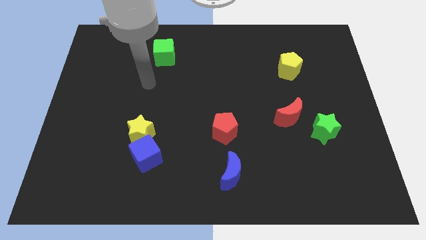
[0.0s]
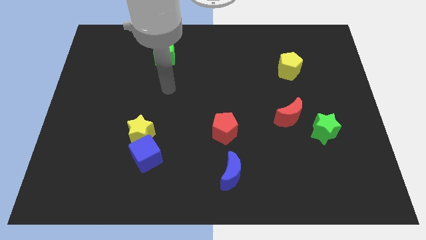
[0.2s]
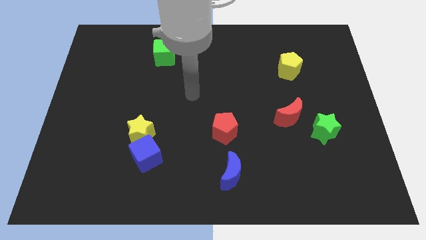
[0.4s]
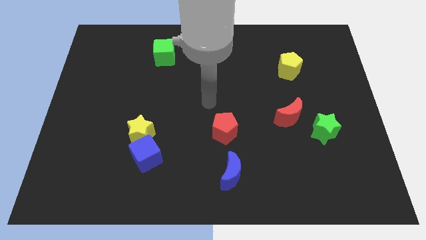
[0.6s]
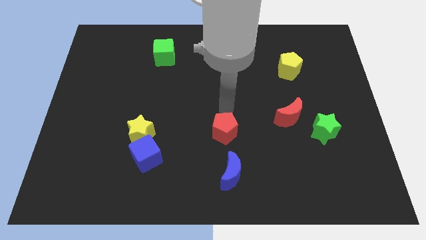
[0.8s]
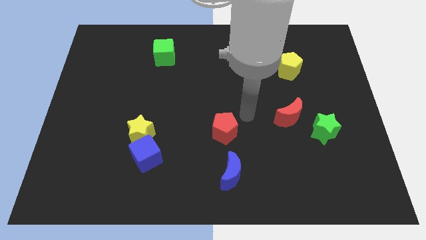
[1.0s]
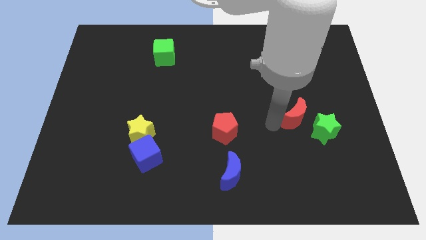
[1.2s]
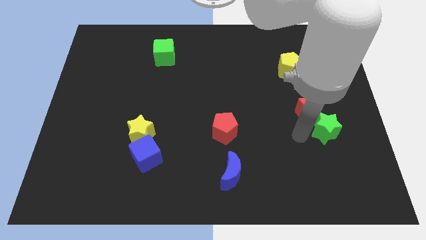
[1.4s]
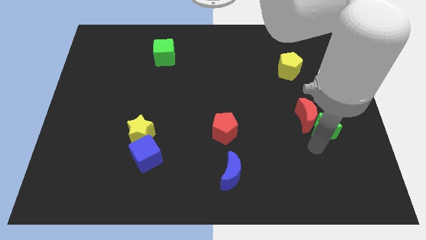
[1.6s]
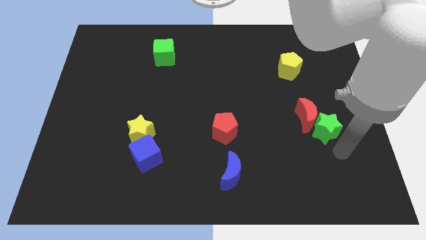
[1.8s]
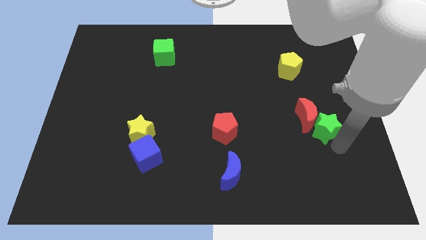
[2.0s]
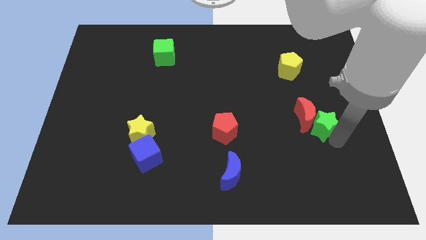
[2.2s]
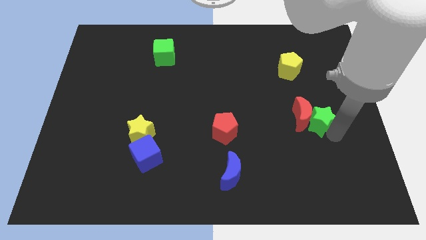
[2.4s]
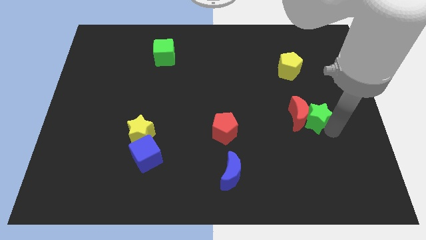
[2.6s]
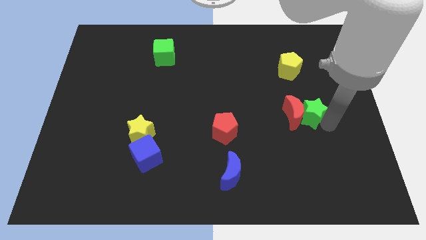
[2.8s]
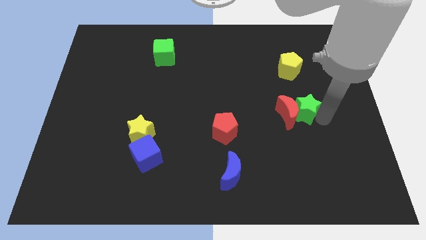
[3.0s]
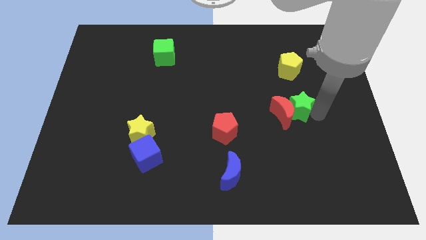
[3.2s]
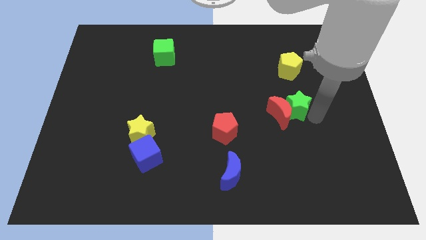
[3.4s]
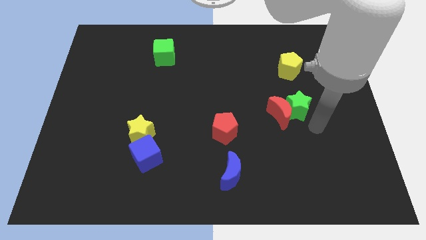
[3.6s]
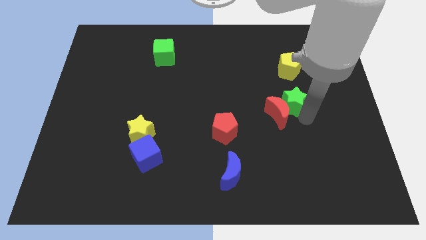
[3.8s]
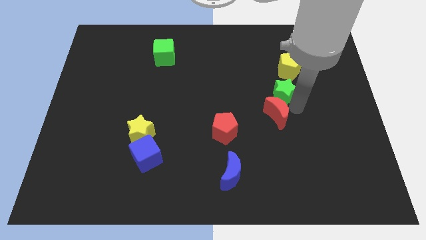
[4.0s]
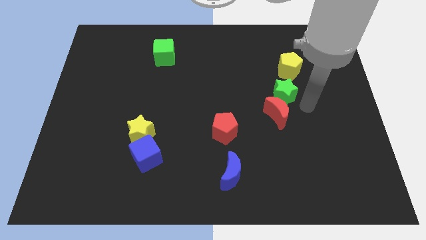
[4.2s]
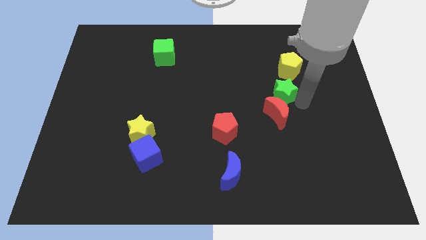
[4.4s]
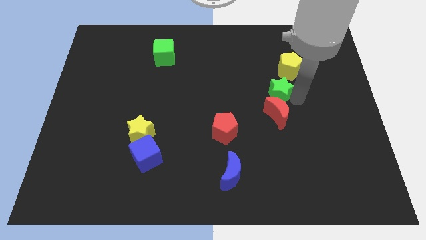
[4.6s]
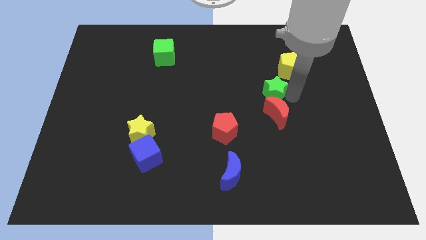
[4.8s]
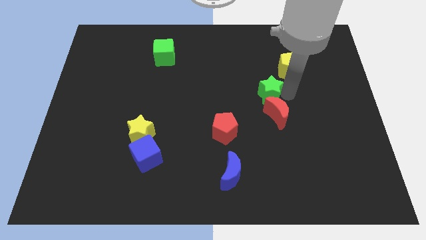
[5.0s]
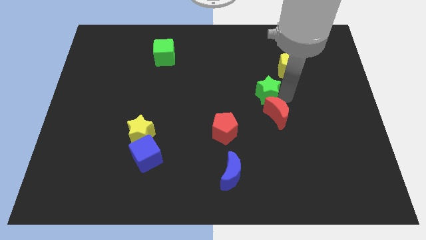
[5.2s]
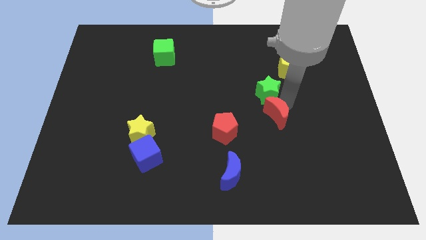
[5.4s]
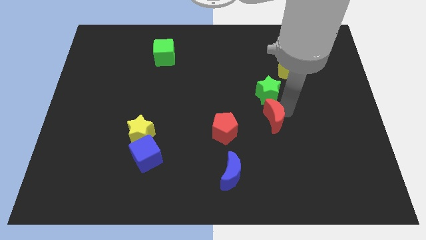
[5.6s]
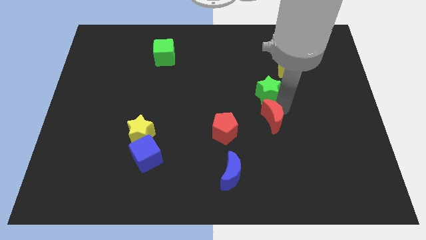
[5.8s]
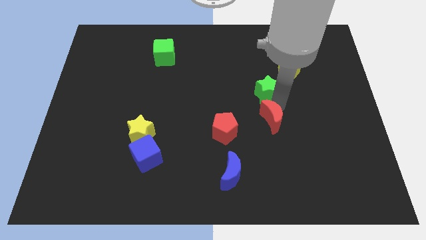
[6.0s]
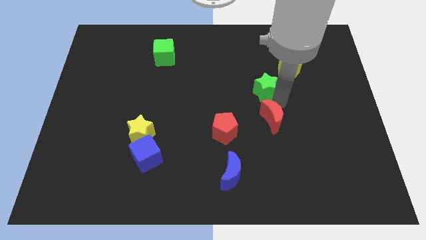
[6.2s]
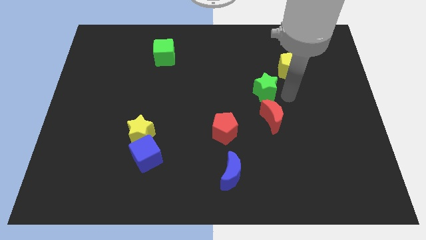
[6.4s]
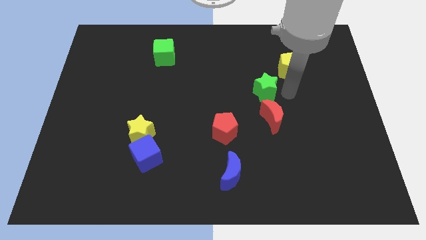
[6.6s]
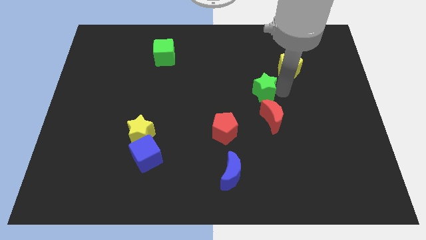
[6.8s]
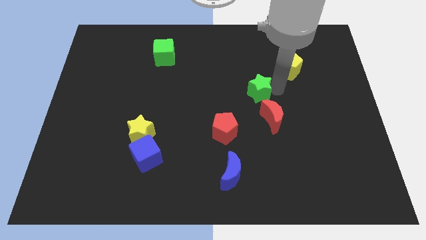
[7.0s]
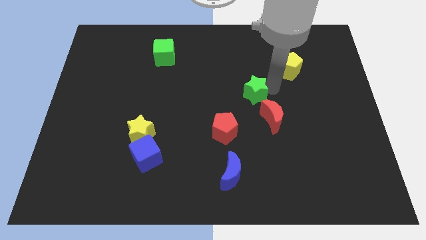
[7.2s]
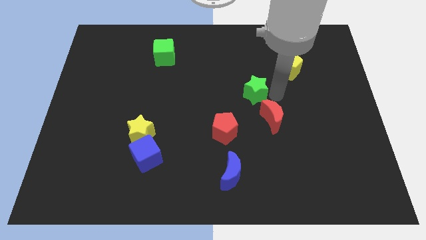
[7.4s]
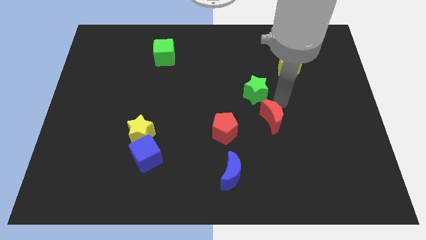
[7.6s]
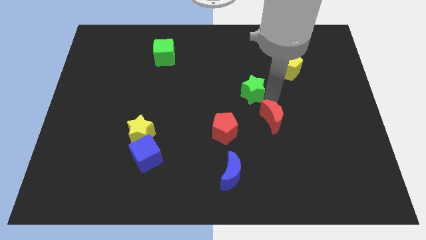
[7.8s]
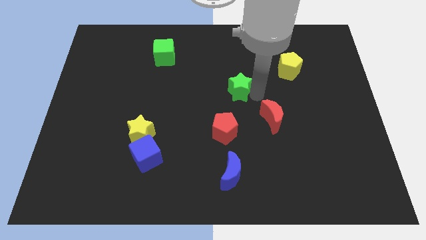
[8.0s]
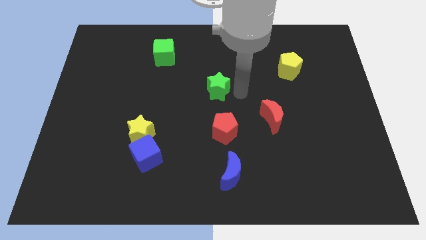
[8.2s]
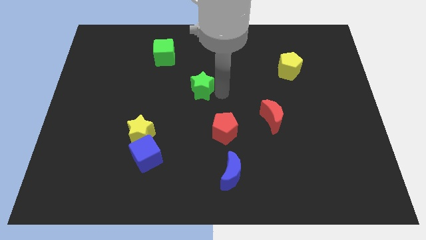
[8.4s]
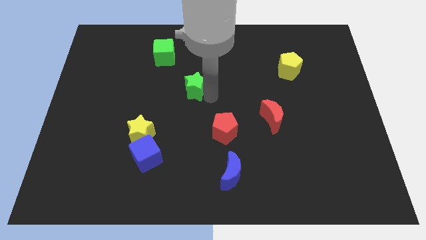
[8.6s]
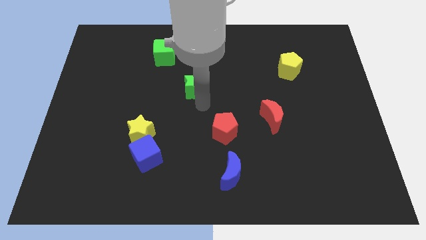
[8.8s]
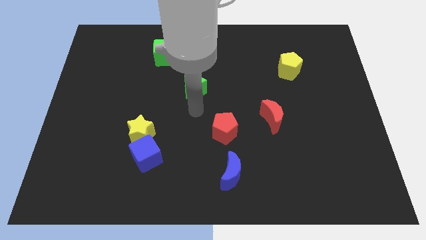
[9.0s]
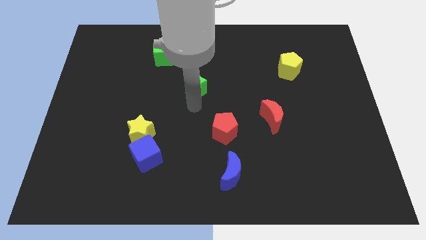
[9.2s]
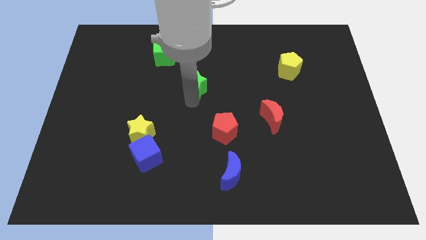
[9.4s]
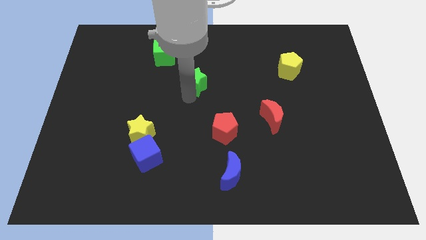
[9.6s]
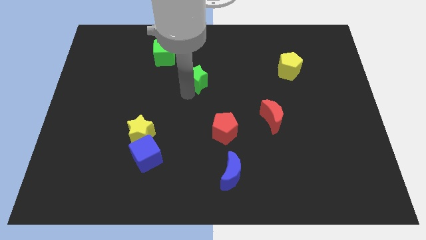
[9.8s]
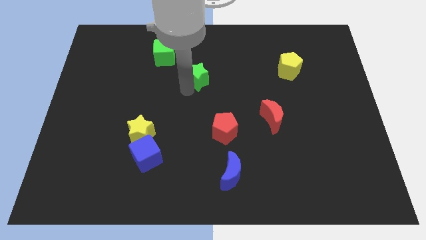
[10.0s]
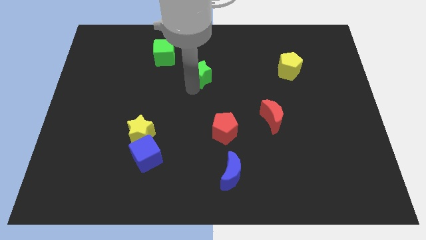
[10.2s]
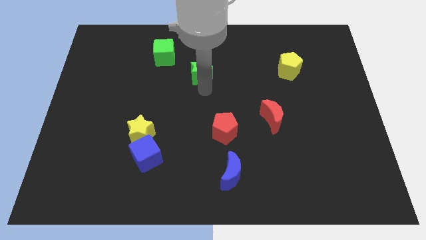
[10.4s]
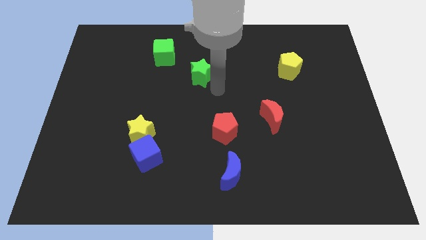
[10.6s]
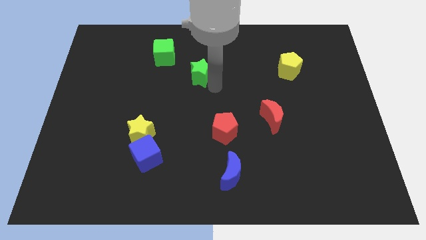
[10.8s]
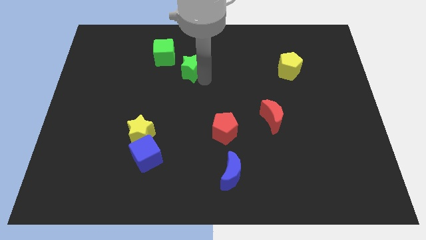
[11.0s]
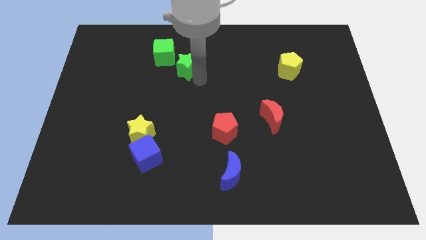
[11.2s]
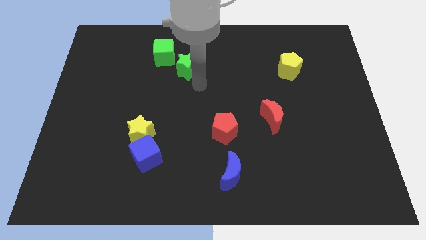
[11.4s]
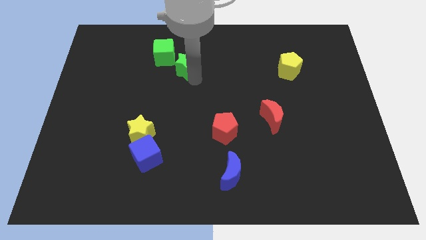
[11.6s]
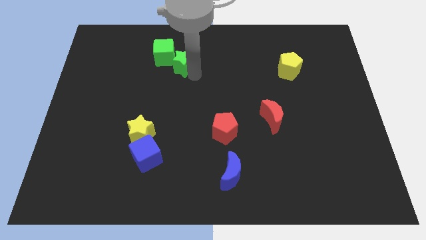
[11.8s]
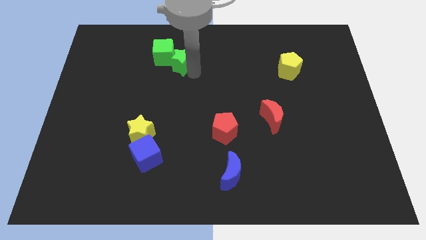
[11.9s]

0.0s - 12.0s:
move the green star close to the green cube

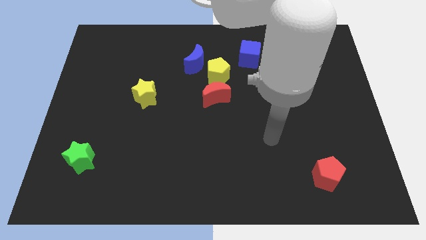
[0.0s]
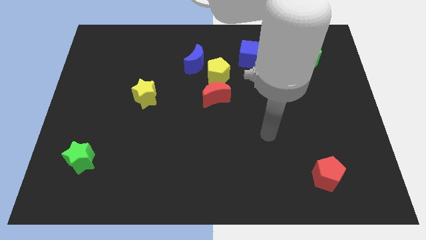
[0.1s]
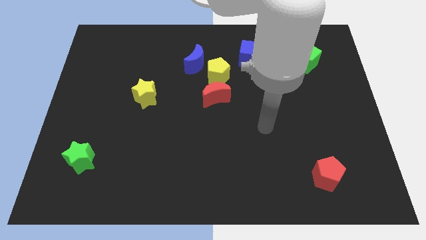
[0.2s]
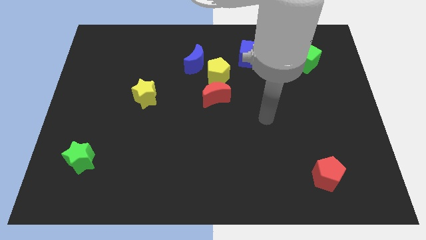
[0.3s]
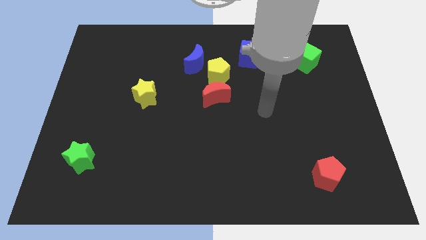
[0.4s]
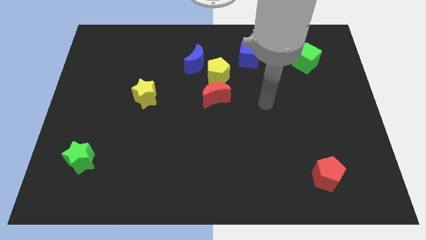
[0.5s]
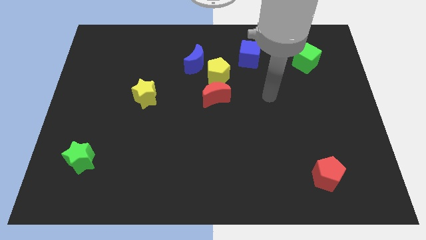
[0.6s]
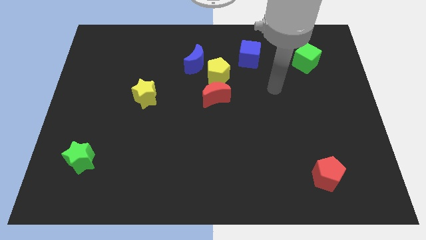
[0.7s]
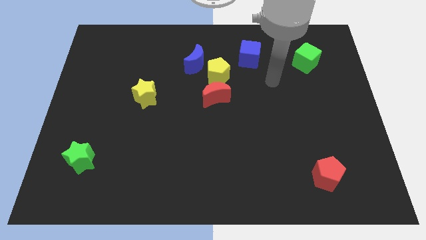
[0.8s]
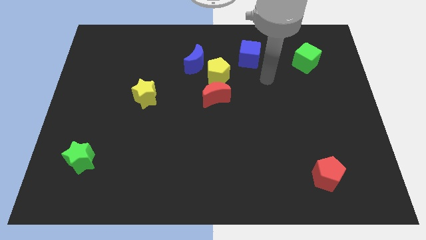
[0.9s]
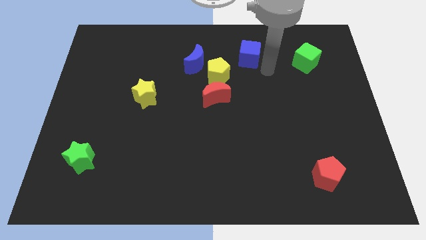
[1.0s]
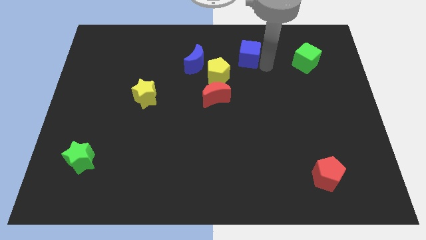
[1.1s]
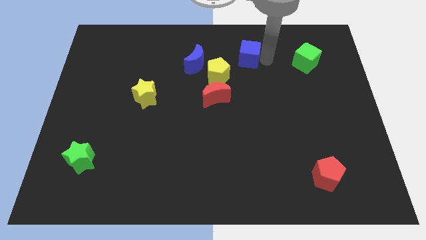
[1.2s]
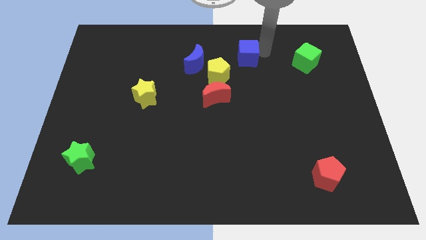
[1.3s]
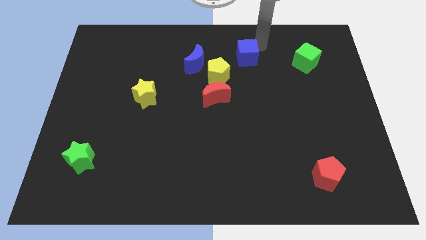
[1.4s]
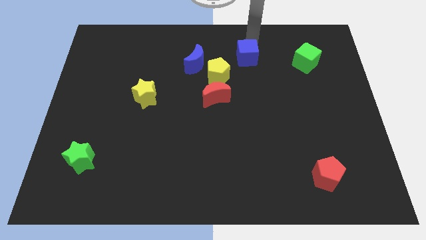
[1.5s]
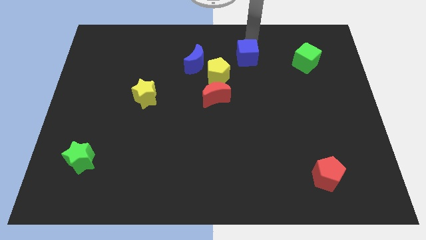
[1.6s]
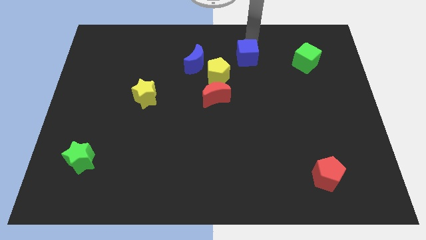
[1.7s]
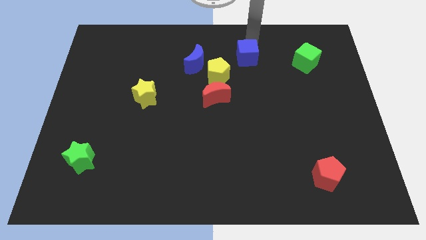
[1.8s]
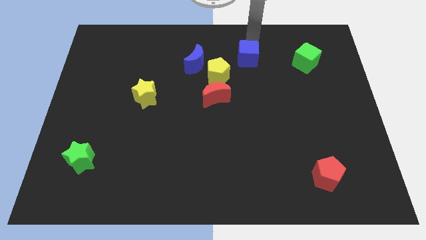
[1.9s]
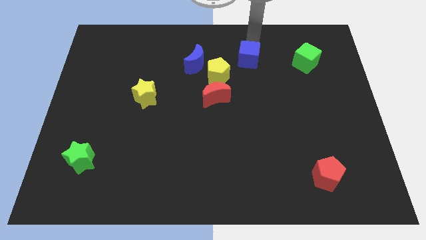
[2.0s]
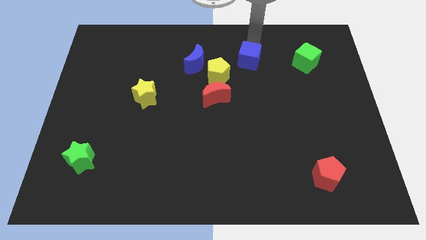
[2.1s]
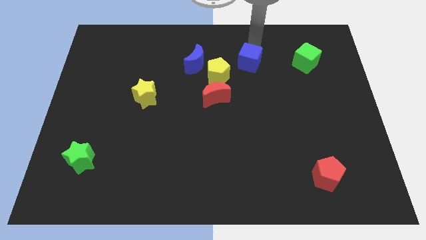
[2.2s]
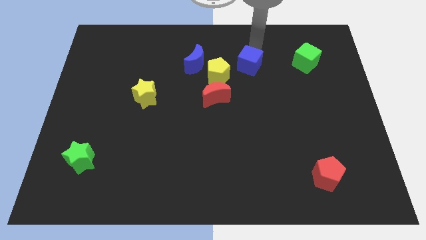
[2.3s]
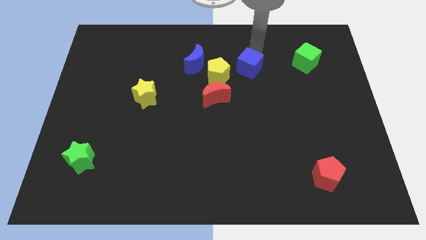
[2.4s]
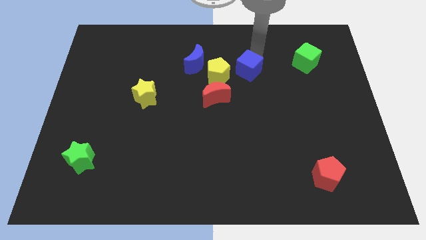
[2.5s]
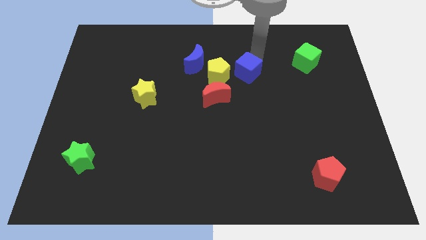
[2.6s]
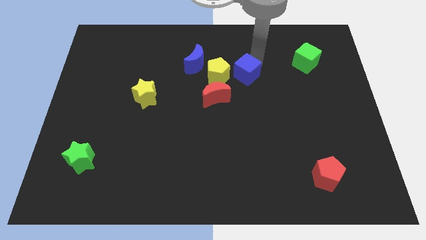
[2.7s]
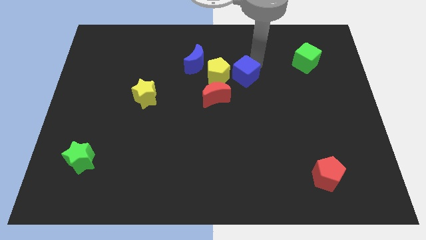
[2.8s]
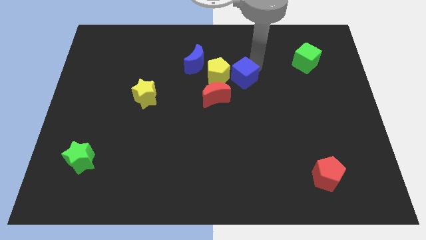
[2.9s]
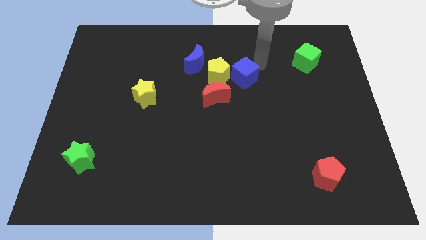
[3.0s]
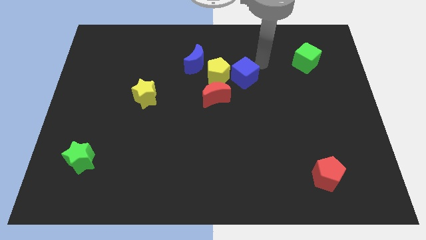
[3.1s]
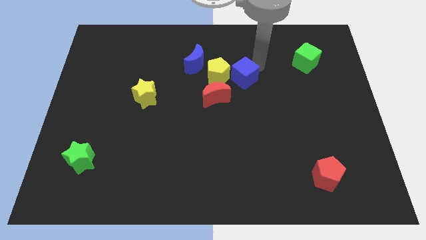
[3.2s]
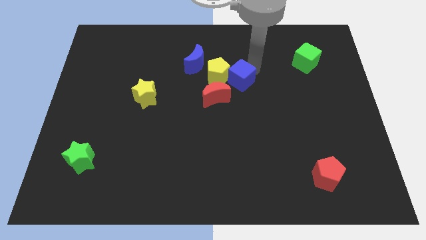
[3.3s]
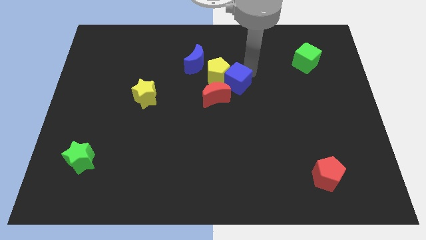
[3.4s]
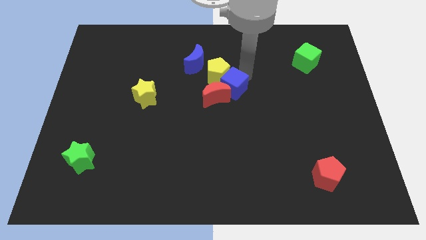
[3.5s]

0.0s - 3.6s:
put the blue cube close to the red moon
